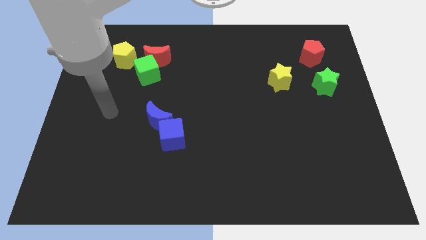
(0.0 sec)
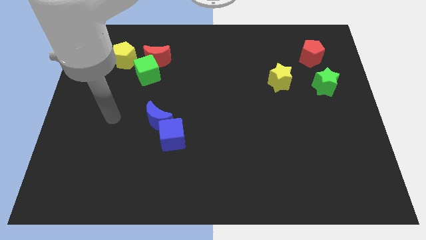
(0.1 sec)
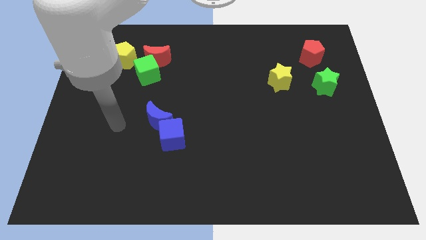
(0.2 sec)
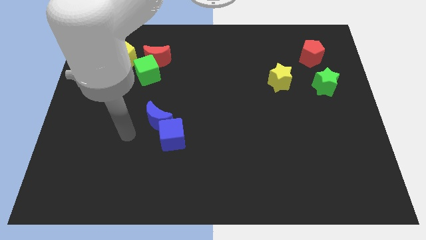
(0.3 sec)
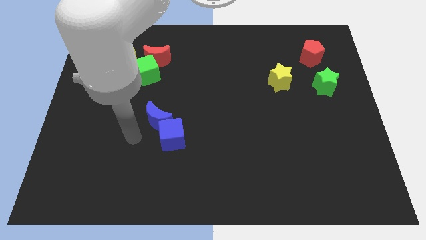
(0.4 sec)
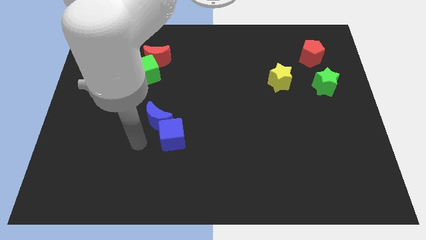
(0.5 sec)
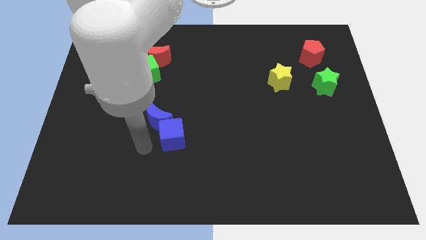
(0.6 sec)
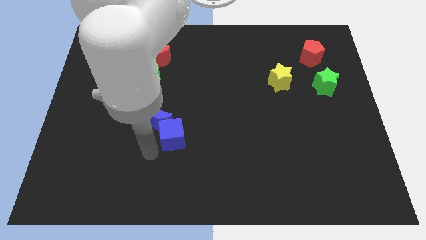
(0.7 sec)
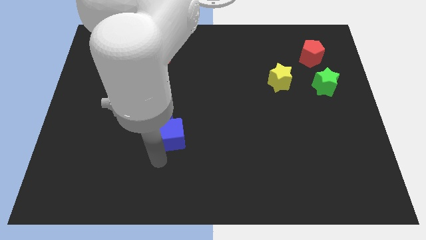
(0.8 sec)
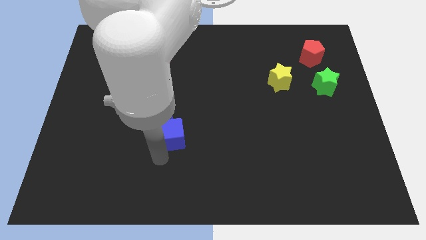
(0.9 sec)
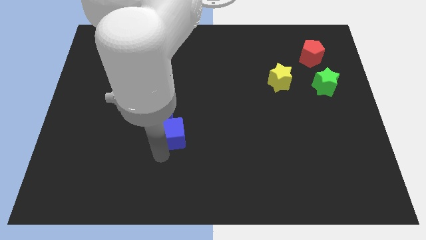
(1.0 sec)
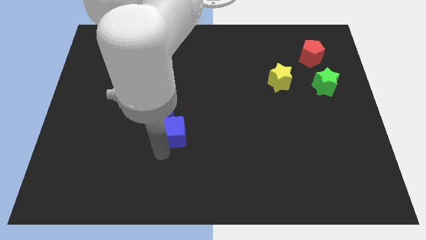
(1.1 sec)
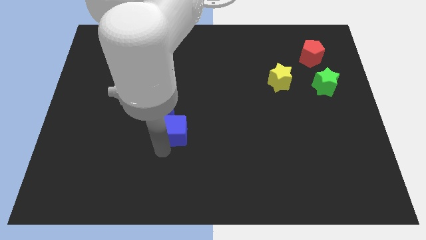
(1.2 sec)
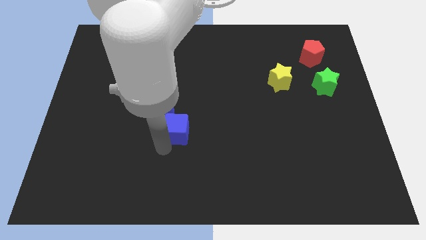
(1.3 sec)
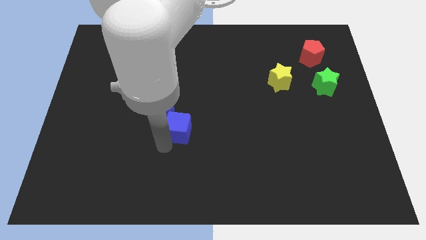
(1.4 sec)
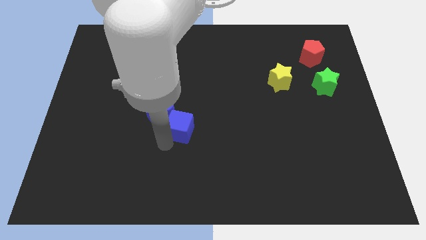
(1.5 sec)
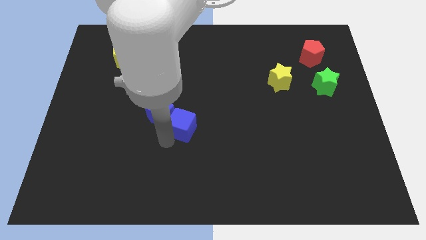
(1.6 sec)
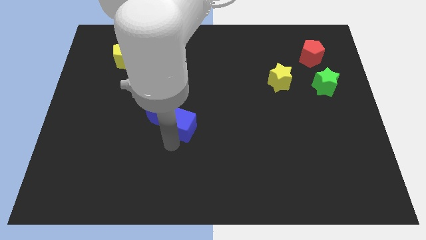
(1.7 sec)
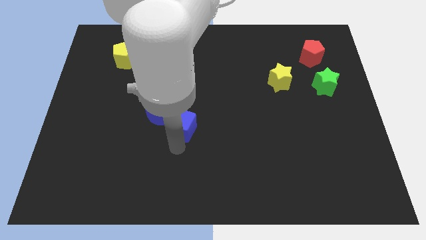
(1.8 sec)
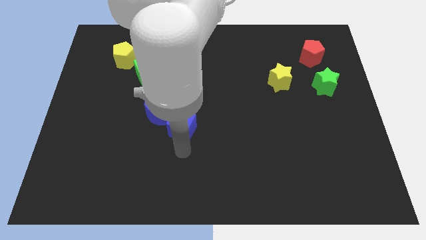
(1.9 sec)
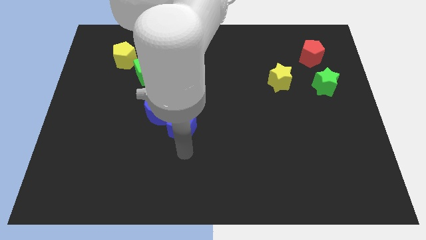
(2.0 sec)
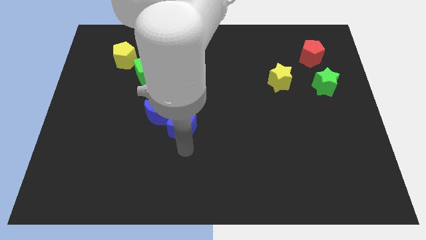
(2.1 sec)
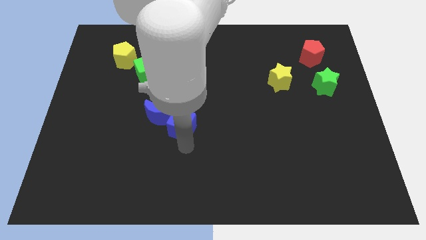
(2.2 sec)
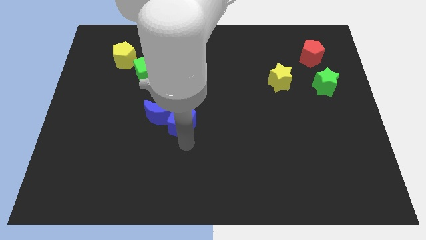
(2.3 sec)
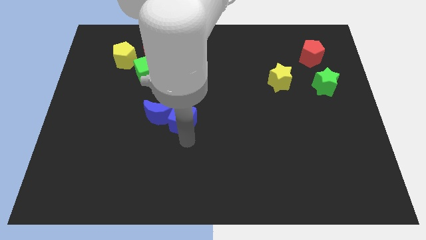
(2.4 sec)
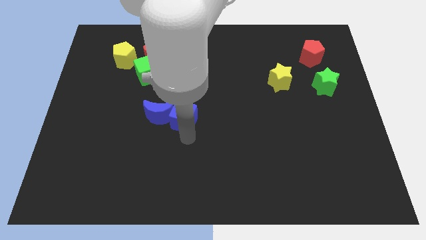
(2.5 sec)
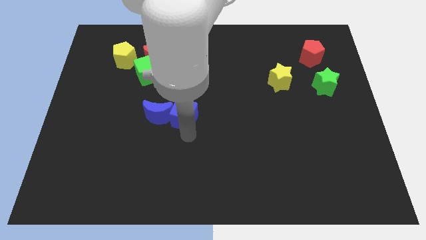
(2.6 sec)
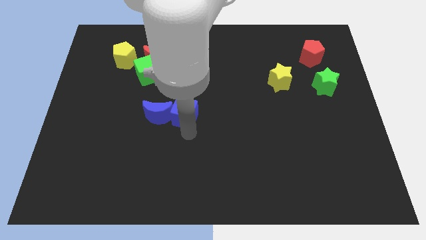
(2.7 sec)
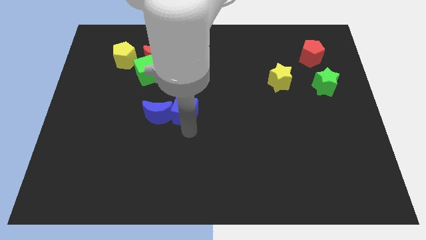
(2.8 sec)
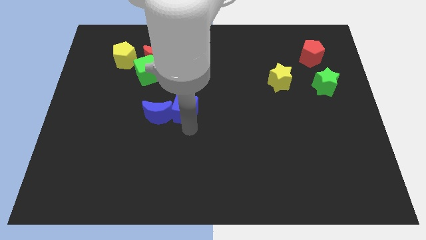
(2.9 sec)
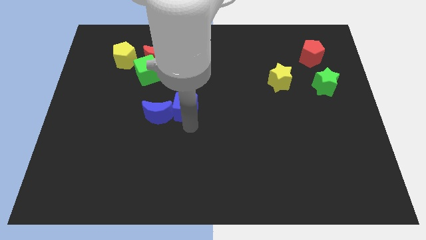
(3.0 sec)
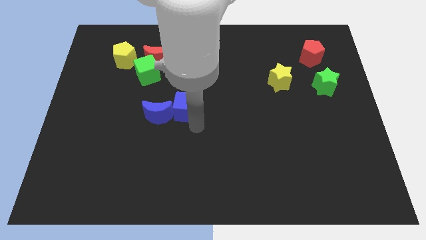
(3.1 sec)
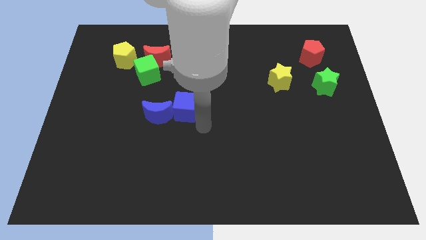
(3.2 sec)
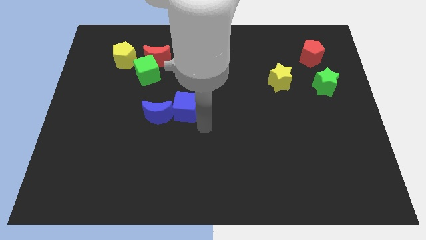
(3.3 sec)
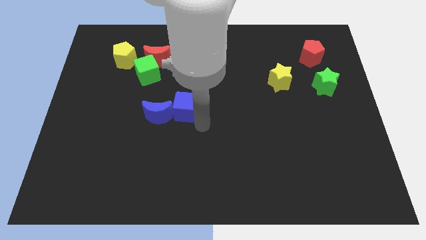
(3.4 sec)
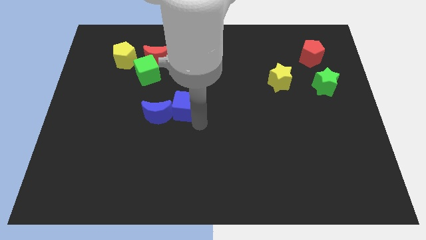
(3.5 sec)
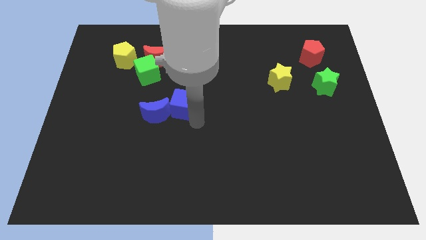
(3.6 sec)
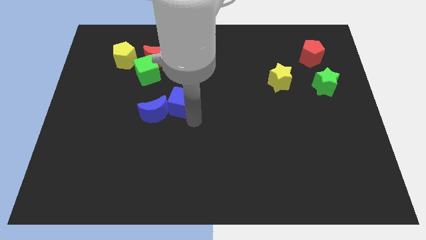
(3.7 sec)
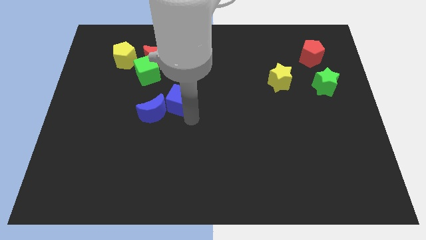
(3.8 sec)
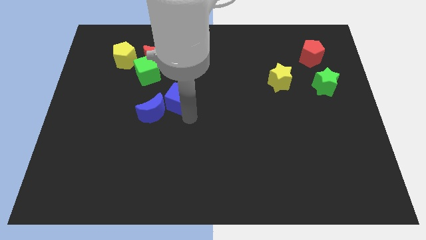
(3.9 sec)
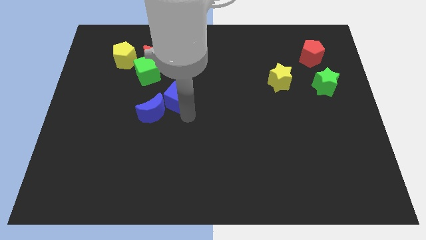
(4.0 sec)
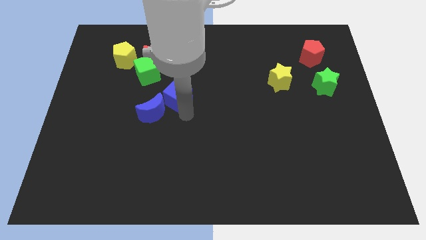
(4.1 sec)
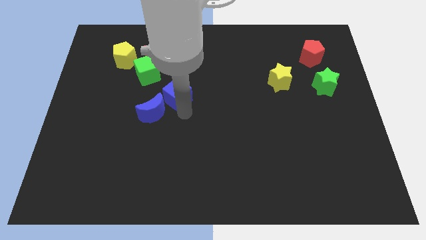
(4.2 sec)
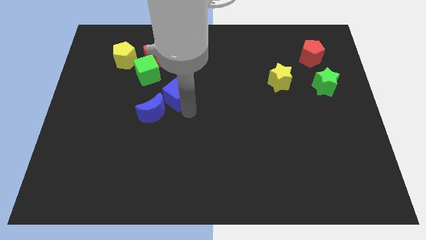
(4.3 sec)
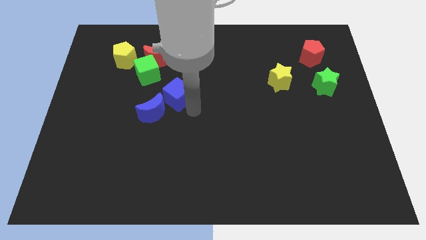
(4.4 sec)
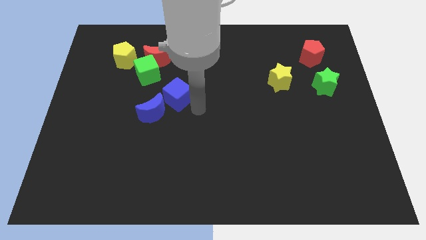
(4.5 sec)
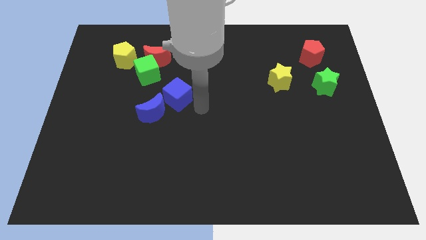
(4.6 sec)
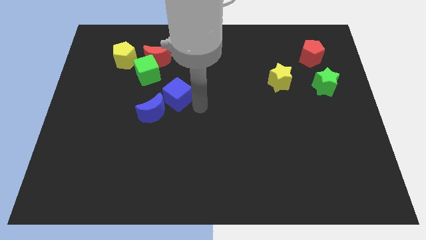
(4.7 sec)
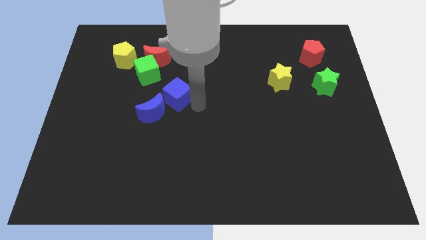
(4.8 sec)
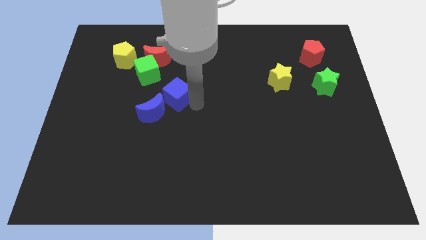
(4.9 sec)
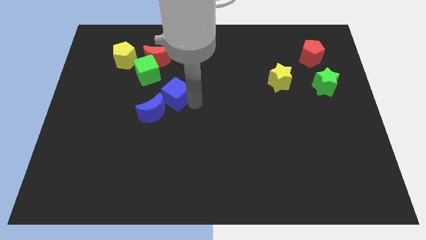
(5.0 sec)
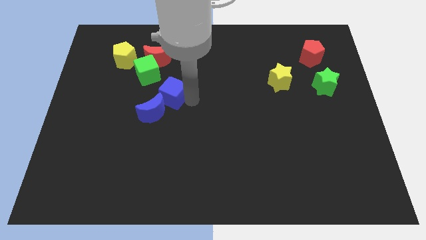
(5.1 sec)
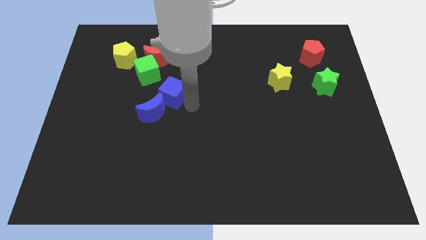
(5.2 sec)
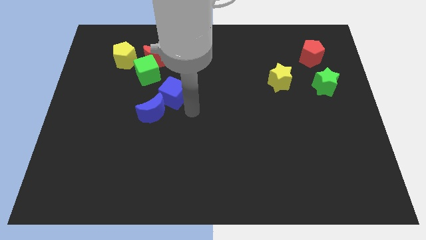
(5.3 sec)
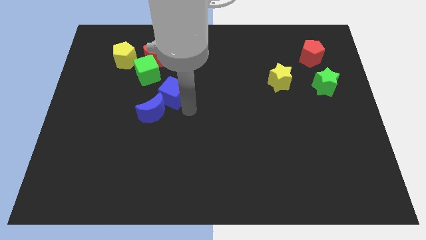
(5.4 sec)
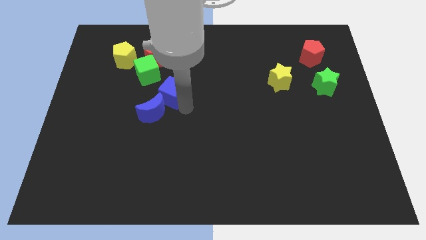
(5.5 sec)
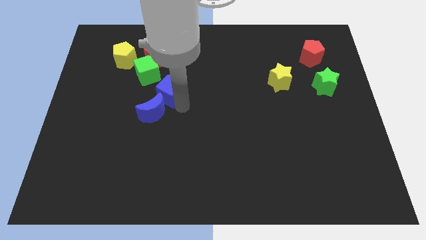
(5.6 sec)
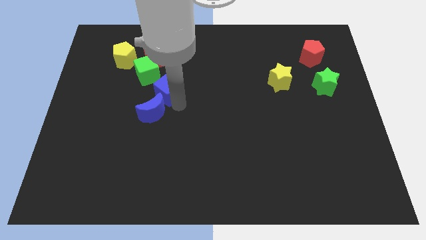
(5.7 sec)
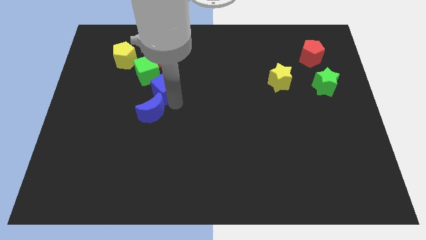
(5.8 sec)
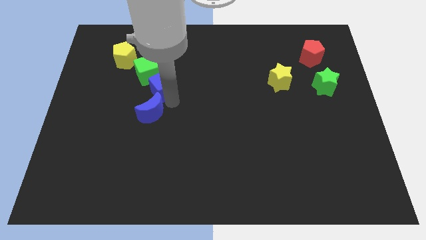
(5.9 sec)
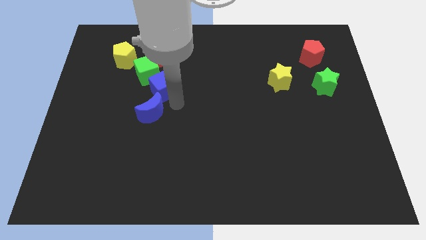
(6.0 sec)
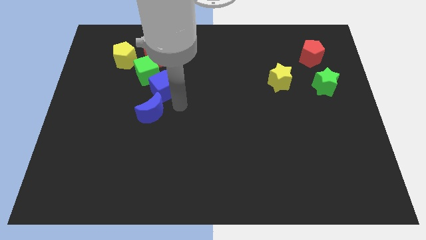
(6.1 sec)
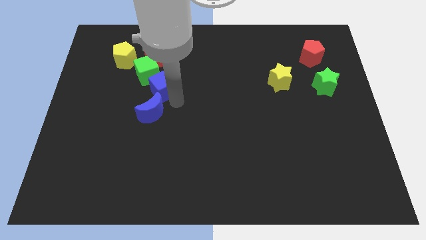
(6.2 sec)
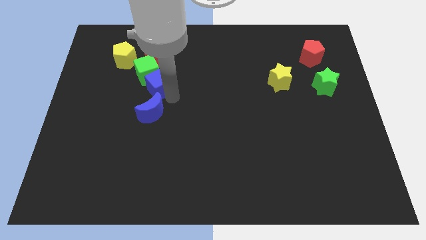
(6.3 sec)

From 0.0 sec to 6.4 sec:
move the blue cube towards the green cube

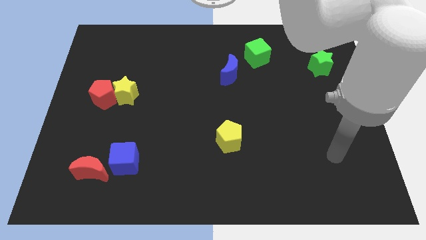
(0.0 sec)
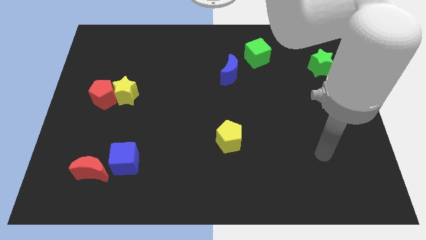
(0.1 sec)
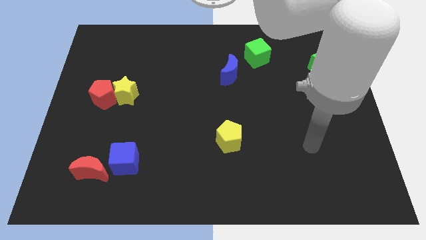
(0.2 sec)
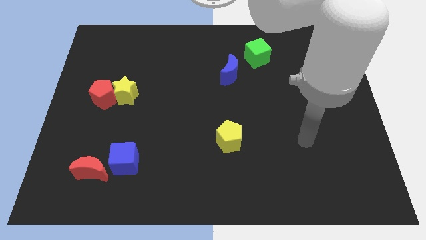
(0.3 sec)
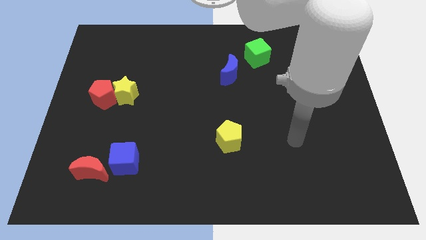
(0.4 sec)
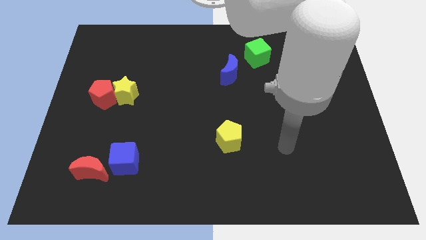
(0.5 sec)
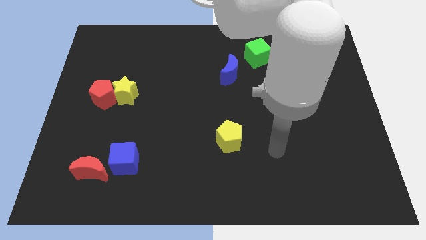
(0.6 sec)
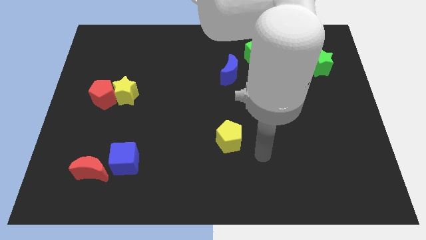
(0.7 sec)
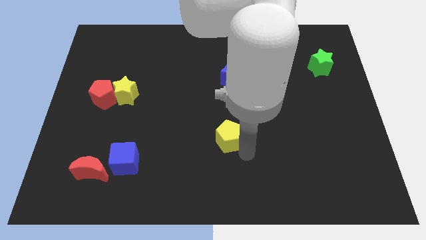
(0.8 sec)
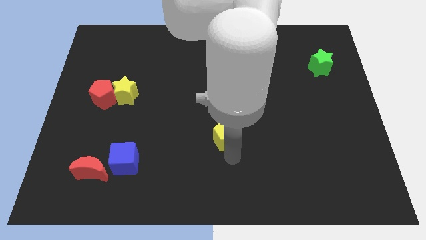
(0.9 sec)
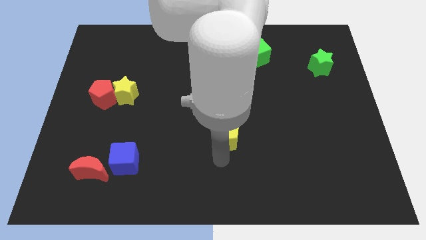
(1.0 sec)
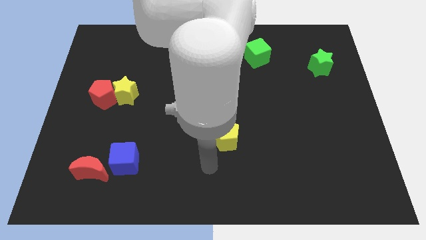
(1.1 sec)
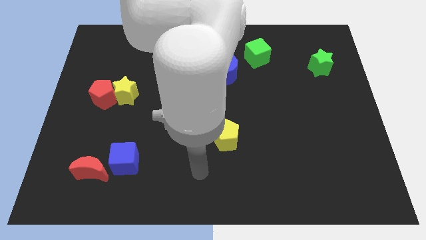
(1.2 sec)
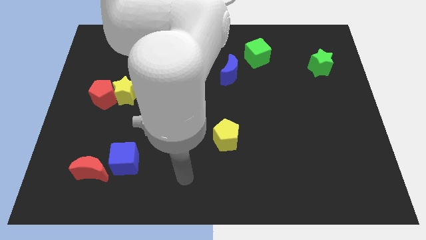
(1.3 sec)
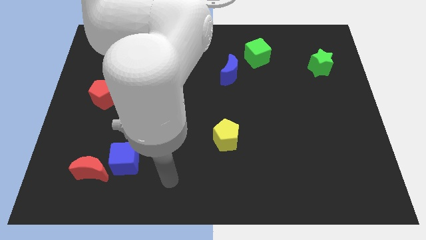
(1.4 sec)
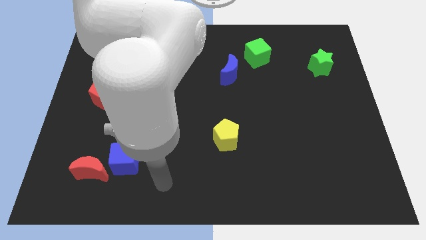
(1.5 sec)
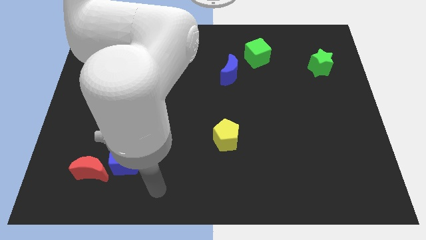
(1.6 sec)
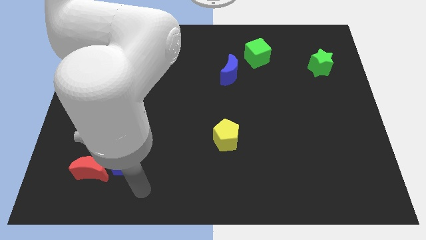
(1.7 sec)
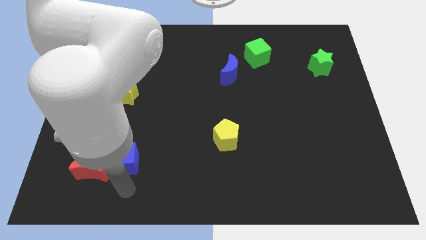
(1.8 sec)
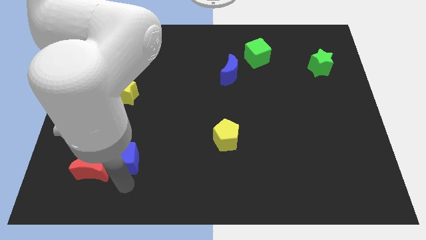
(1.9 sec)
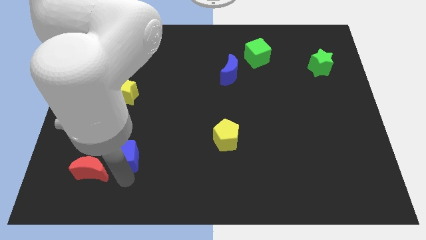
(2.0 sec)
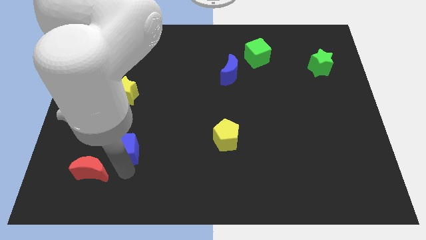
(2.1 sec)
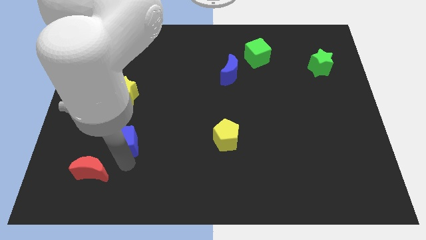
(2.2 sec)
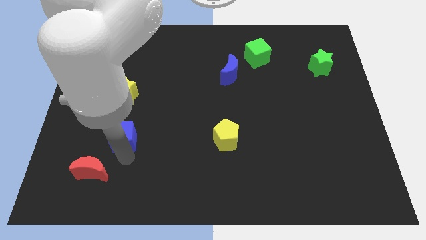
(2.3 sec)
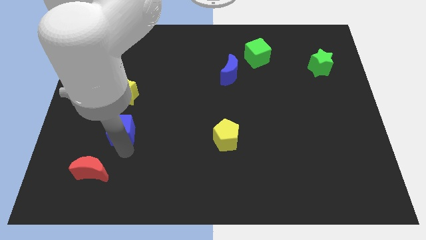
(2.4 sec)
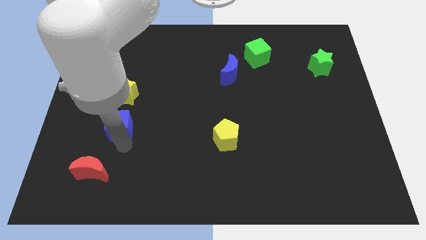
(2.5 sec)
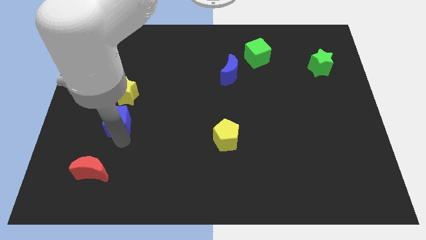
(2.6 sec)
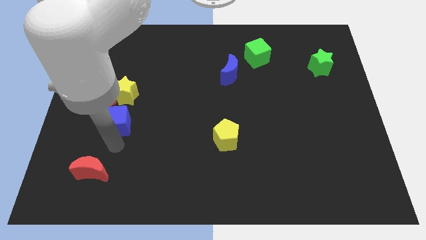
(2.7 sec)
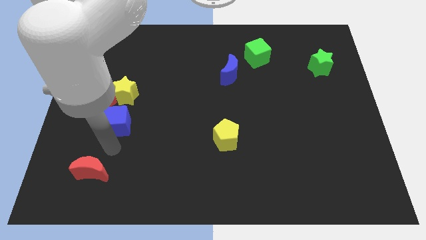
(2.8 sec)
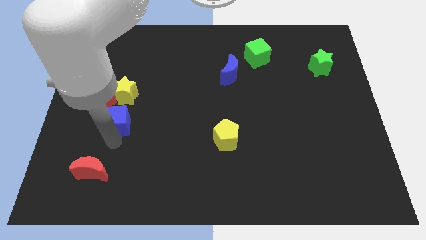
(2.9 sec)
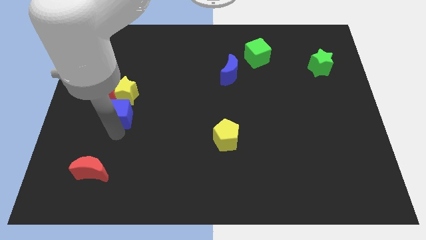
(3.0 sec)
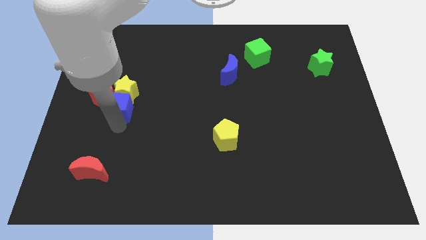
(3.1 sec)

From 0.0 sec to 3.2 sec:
slide the blue cube towards the yellow star
